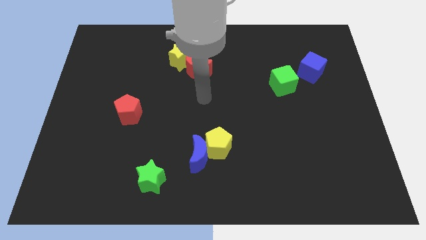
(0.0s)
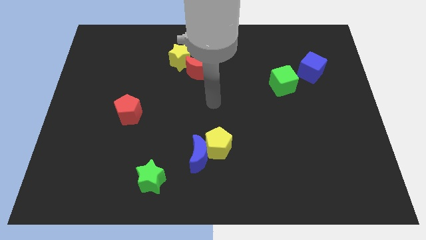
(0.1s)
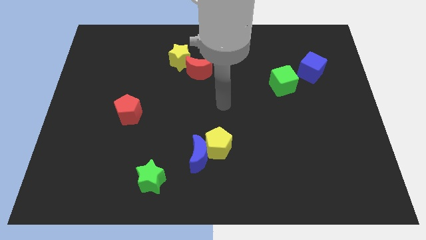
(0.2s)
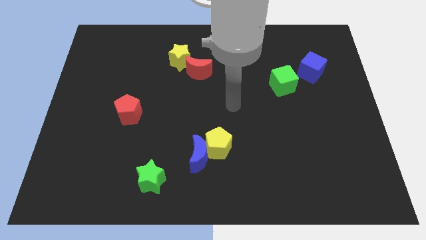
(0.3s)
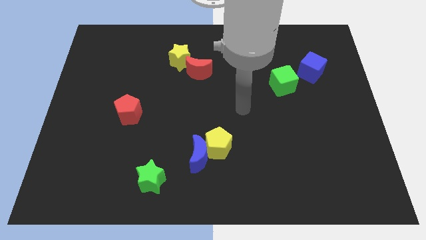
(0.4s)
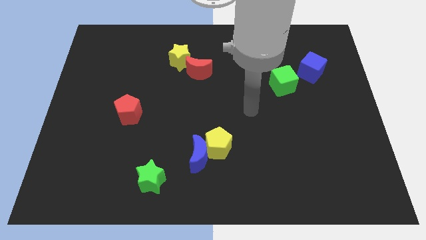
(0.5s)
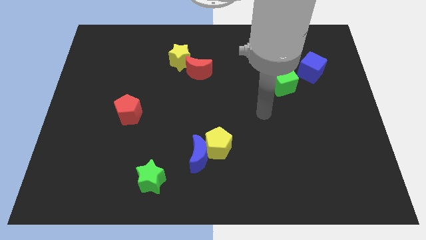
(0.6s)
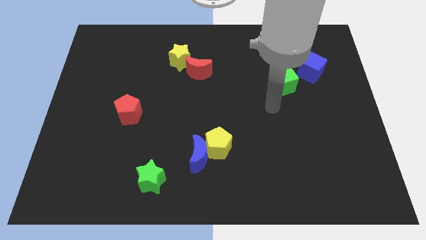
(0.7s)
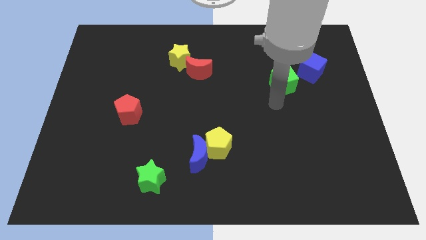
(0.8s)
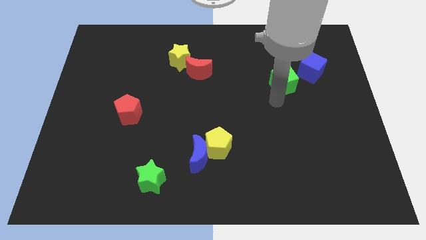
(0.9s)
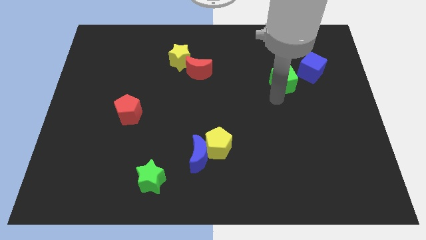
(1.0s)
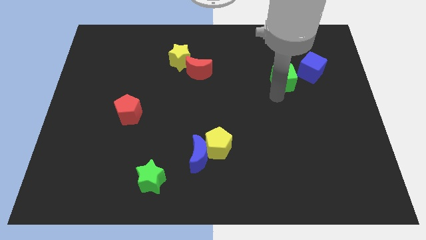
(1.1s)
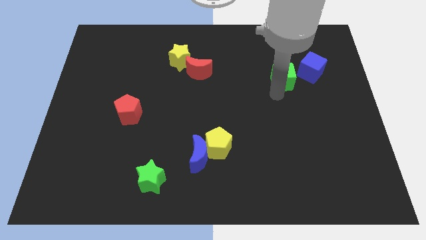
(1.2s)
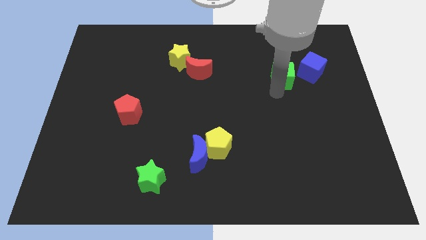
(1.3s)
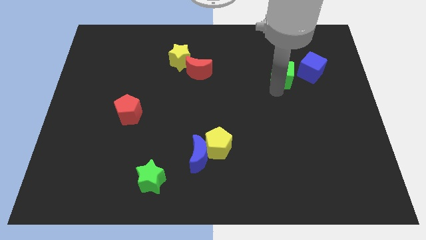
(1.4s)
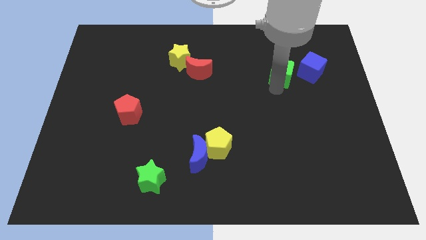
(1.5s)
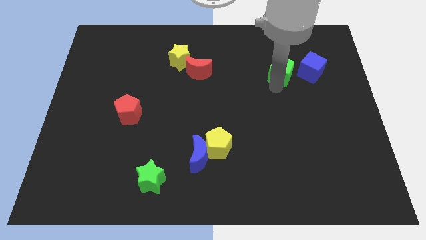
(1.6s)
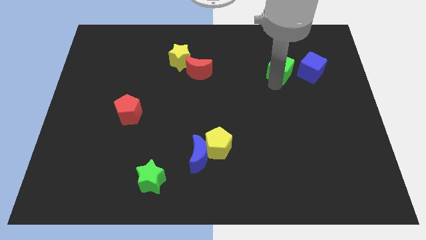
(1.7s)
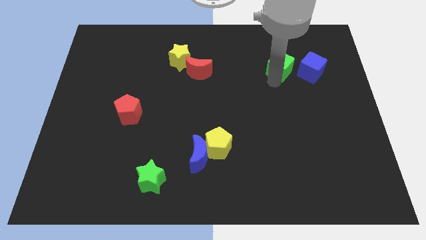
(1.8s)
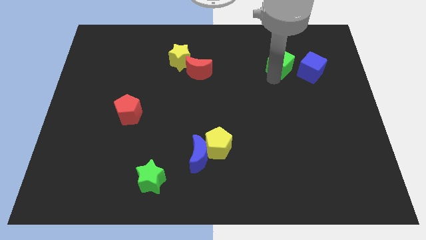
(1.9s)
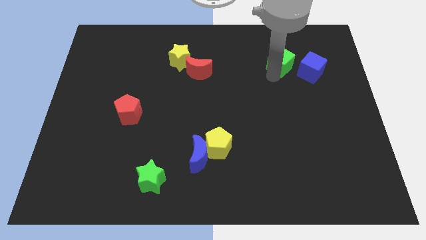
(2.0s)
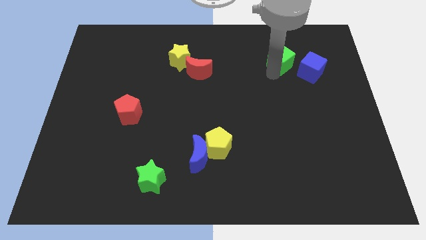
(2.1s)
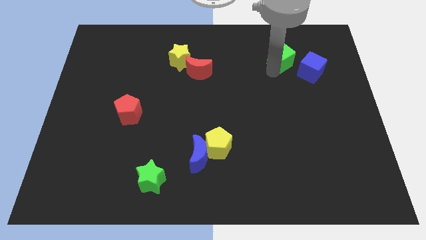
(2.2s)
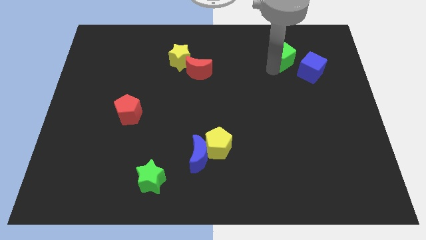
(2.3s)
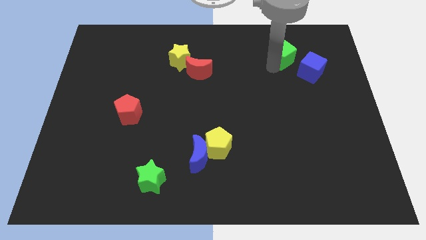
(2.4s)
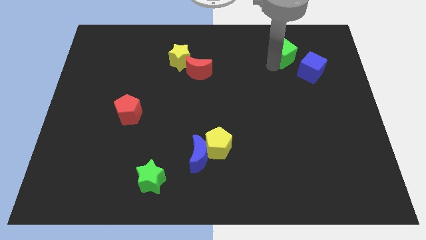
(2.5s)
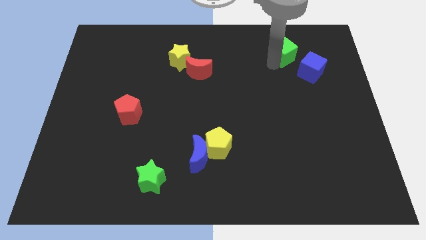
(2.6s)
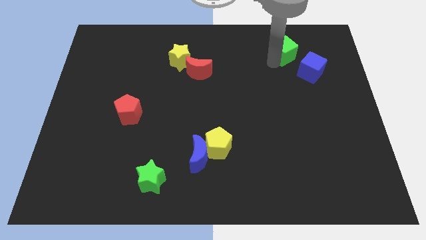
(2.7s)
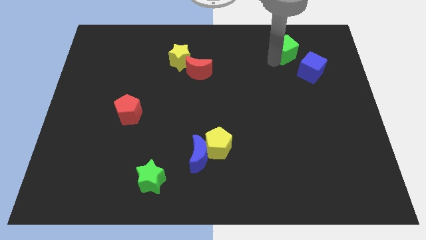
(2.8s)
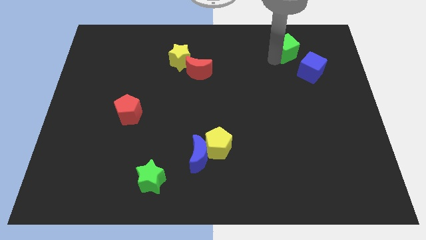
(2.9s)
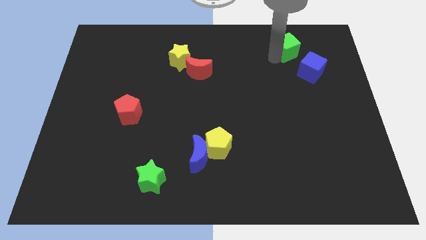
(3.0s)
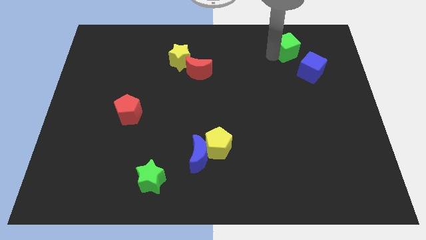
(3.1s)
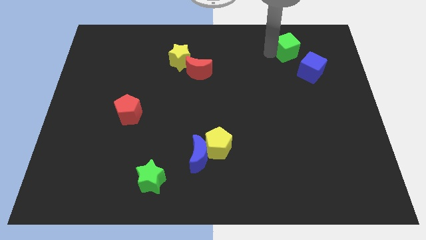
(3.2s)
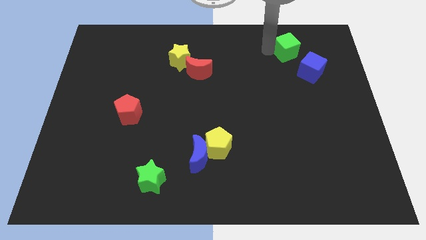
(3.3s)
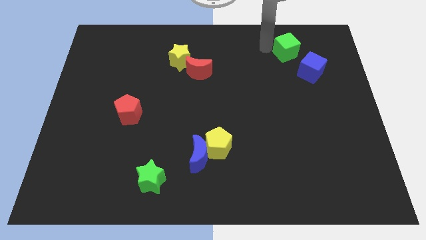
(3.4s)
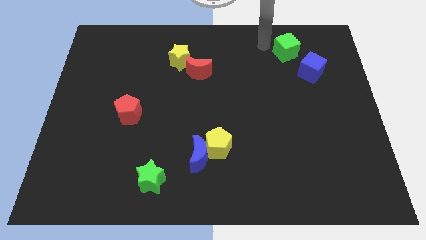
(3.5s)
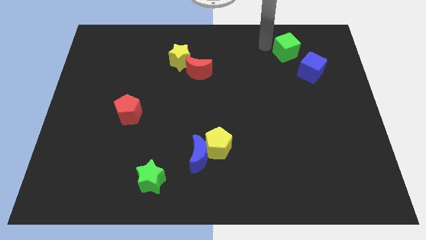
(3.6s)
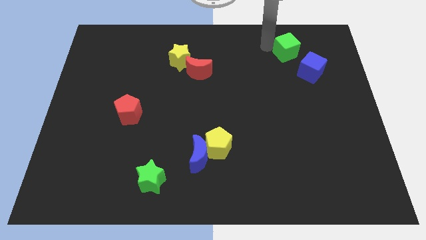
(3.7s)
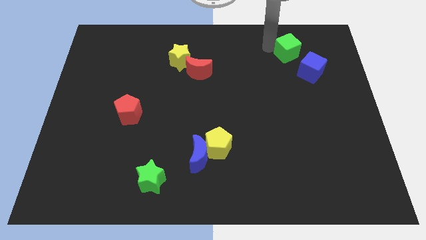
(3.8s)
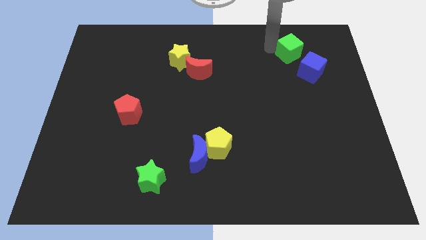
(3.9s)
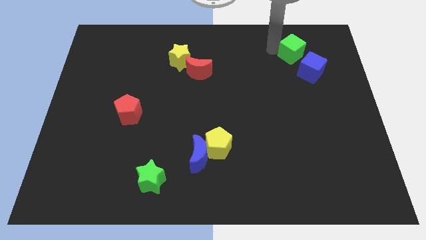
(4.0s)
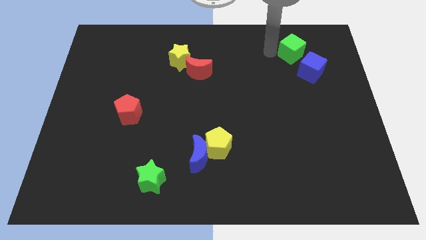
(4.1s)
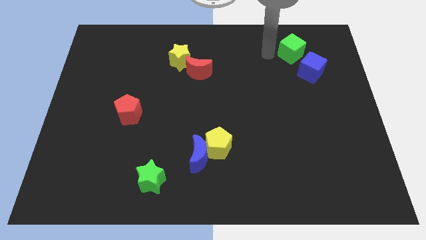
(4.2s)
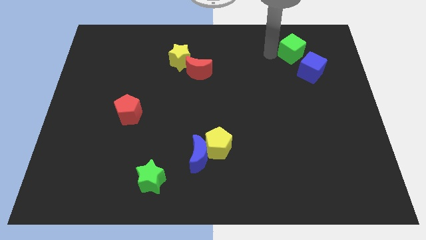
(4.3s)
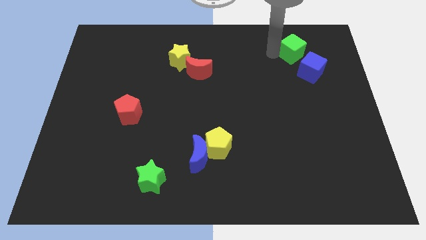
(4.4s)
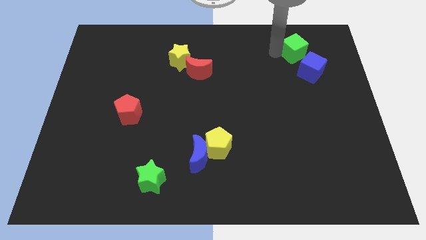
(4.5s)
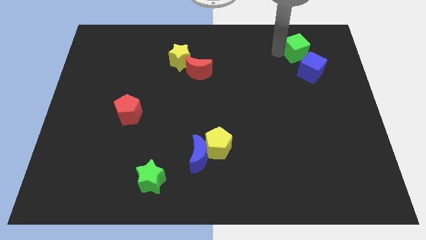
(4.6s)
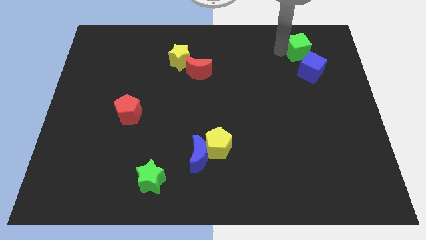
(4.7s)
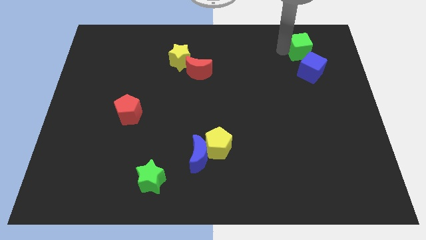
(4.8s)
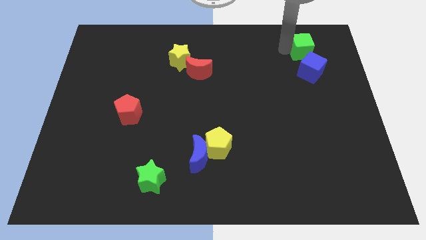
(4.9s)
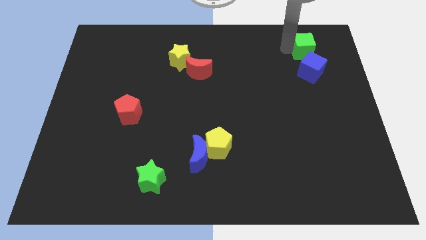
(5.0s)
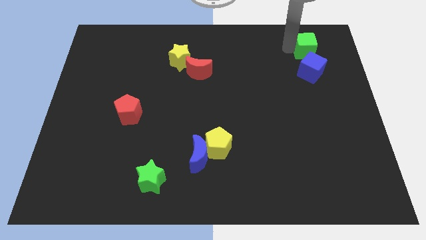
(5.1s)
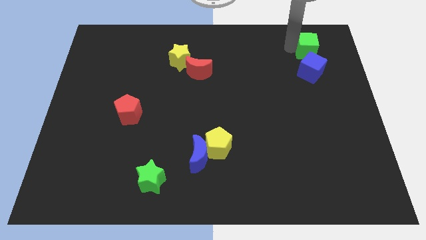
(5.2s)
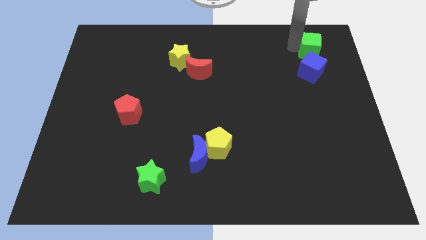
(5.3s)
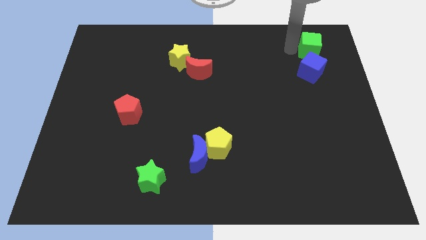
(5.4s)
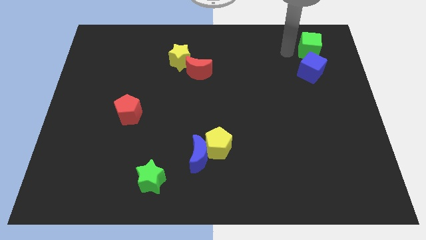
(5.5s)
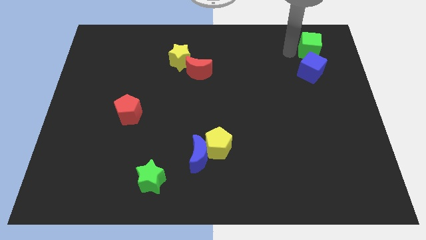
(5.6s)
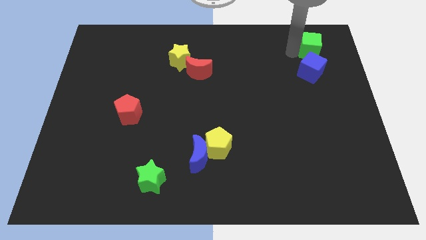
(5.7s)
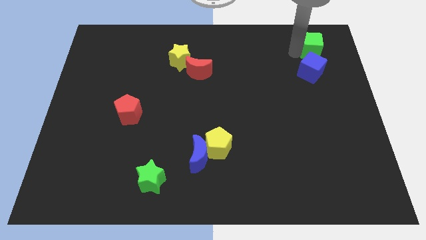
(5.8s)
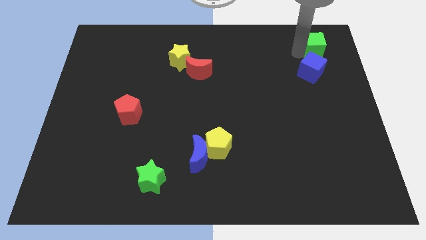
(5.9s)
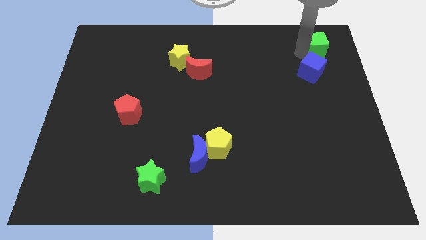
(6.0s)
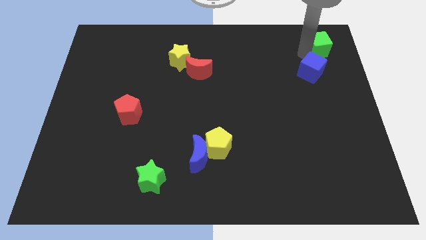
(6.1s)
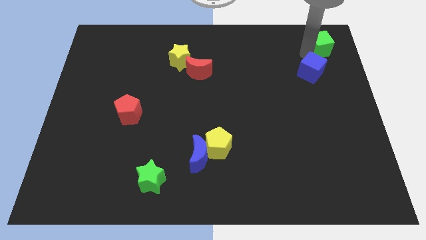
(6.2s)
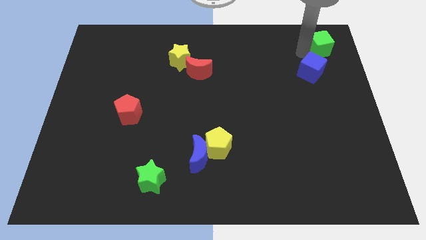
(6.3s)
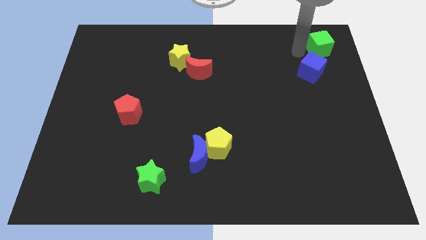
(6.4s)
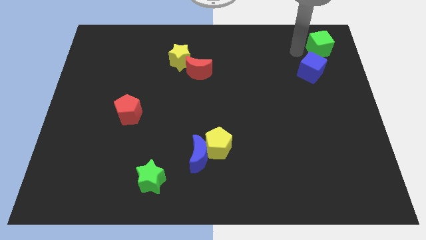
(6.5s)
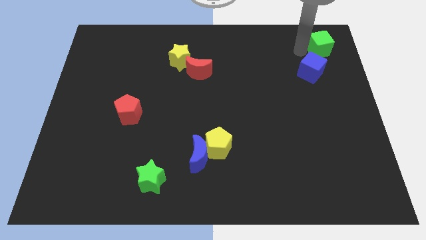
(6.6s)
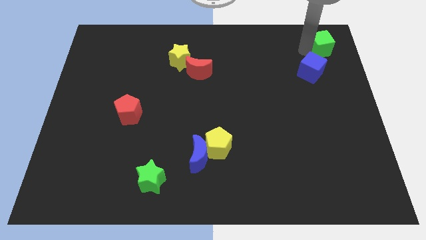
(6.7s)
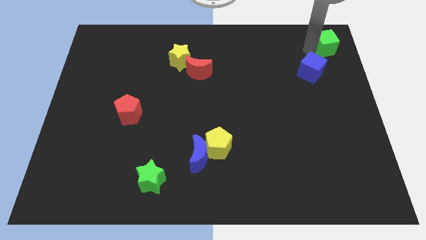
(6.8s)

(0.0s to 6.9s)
move the green cube to the upper right corner
